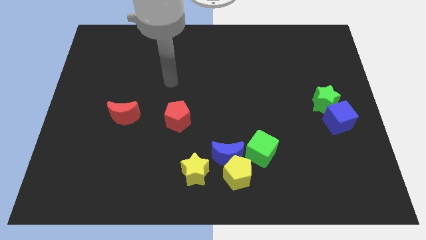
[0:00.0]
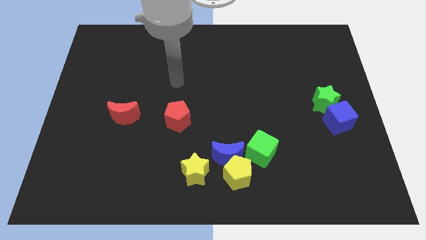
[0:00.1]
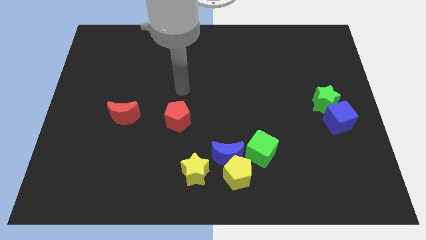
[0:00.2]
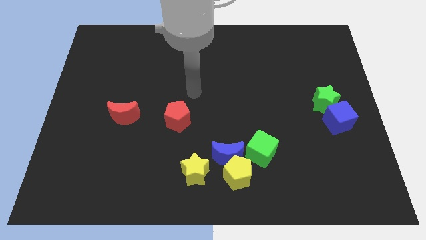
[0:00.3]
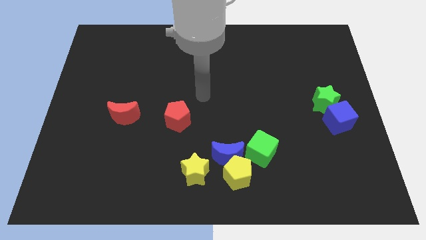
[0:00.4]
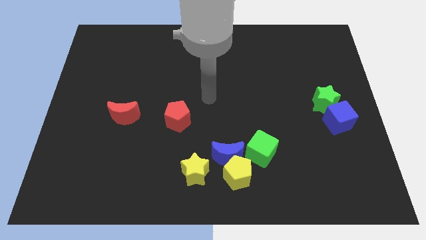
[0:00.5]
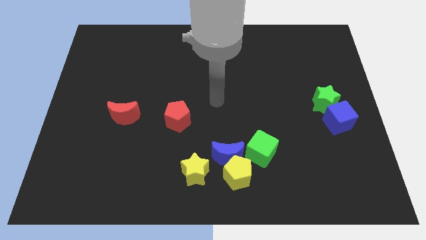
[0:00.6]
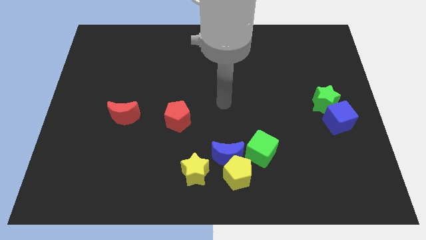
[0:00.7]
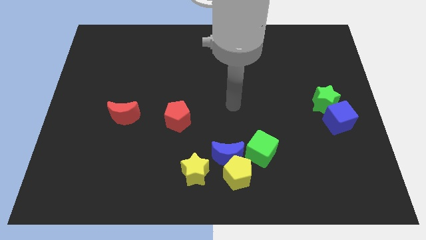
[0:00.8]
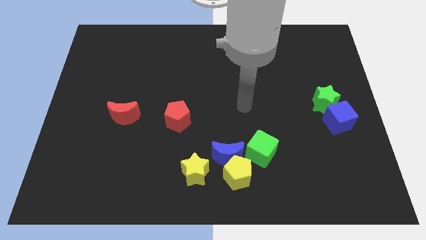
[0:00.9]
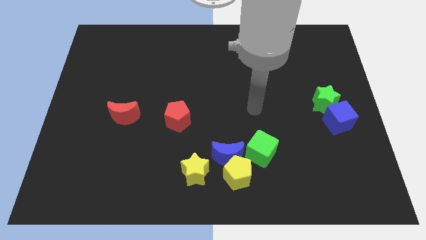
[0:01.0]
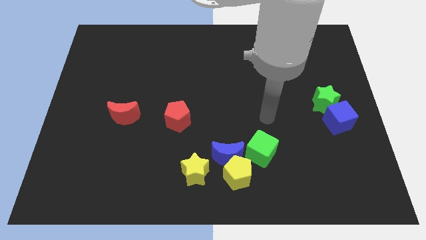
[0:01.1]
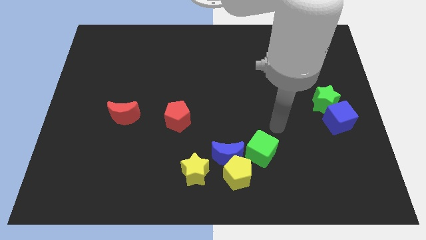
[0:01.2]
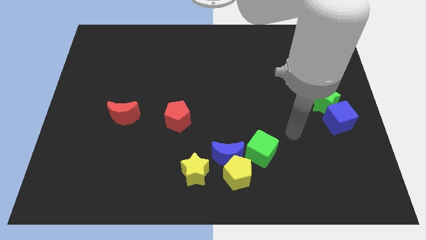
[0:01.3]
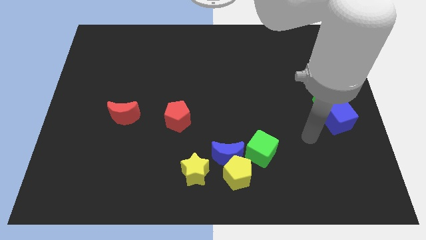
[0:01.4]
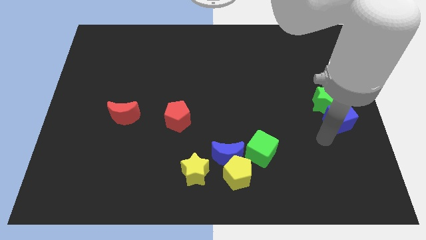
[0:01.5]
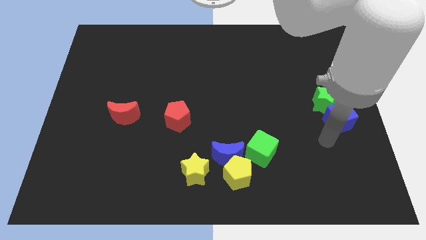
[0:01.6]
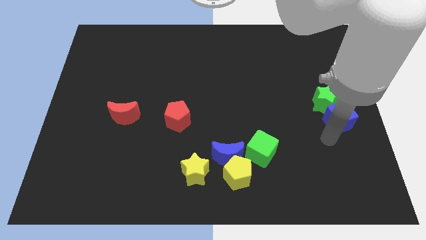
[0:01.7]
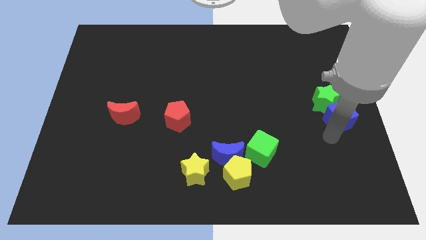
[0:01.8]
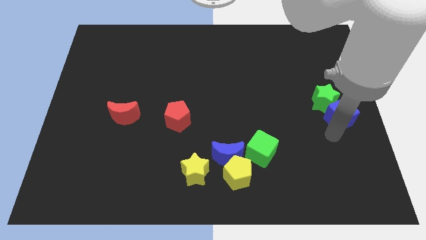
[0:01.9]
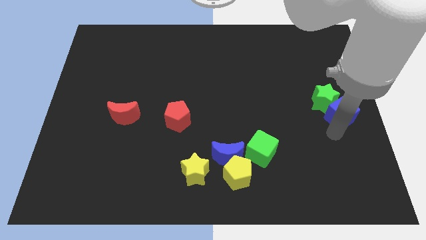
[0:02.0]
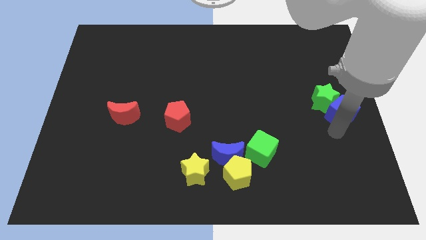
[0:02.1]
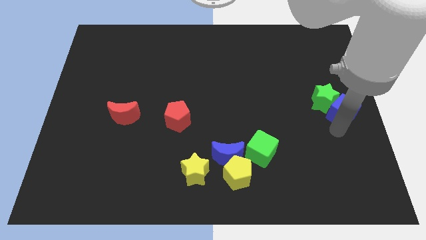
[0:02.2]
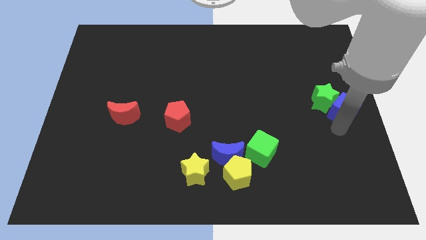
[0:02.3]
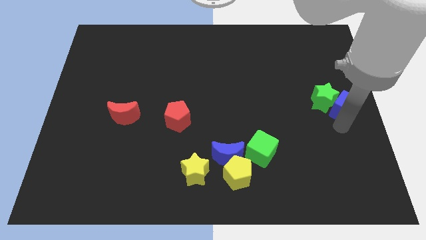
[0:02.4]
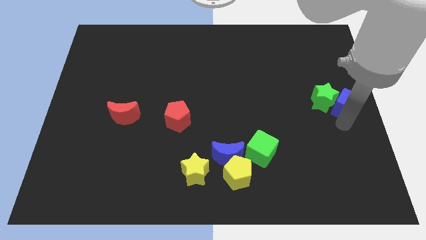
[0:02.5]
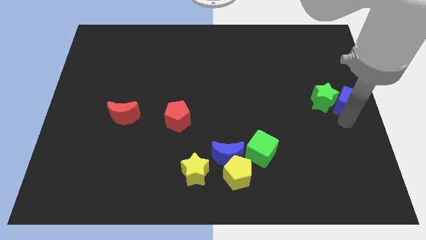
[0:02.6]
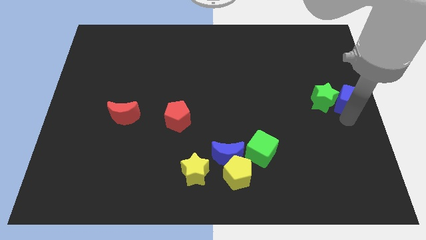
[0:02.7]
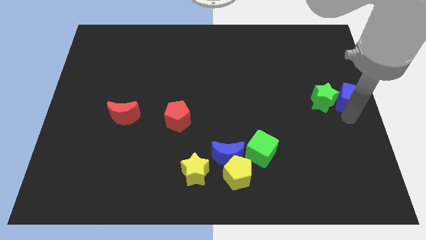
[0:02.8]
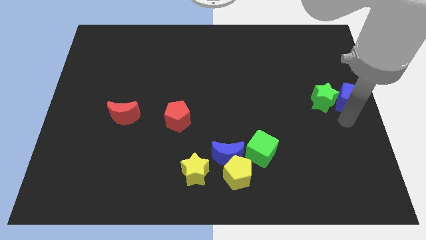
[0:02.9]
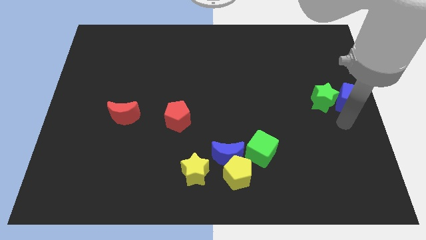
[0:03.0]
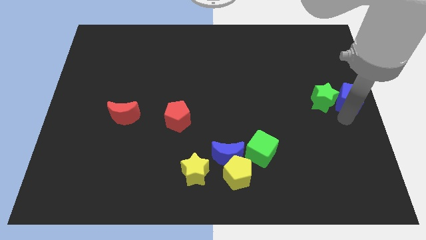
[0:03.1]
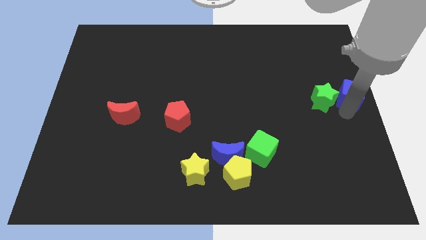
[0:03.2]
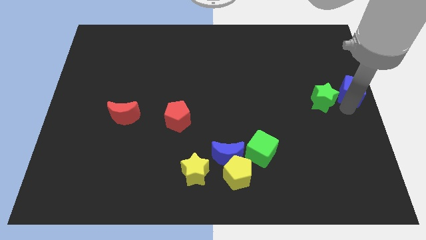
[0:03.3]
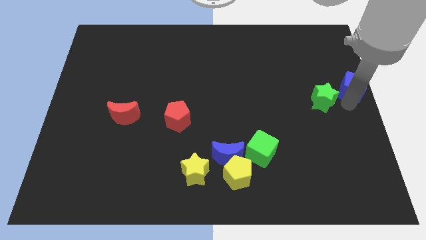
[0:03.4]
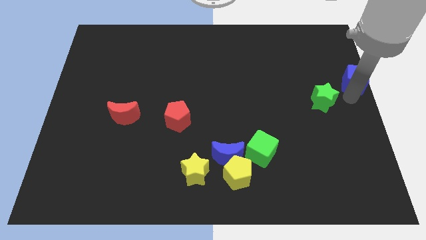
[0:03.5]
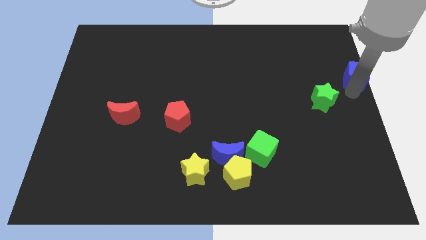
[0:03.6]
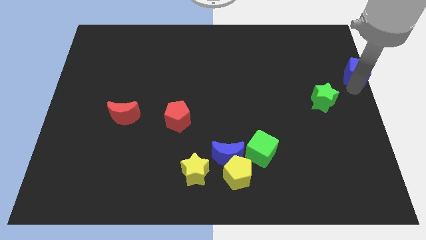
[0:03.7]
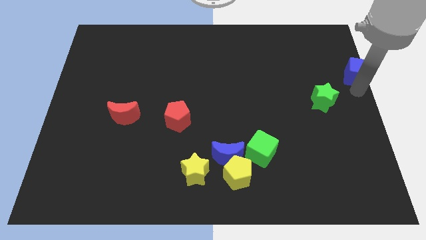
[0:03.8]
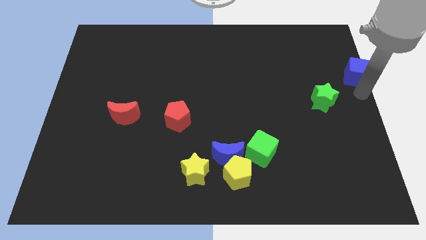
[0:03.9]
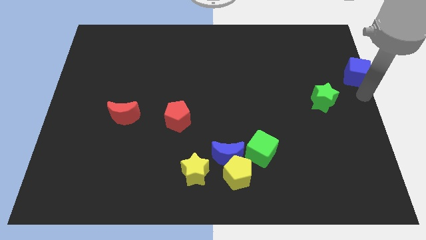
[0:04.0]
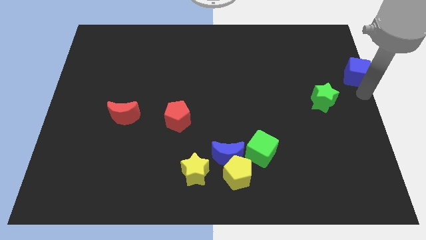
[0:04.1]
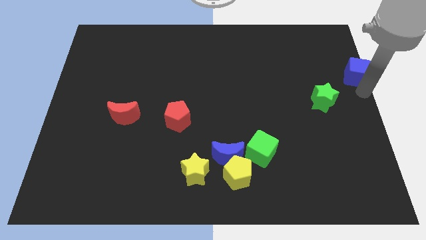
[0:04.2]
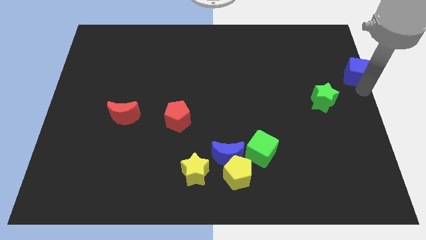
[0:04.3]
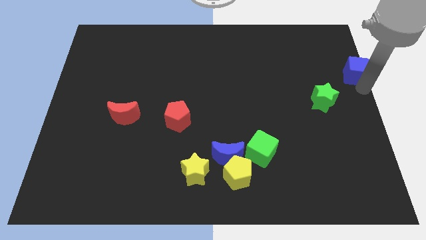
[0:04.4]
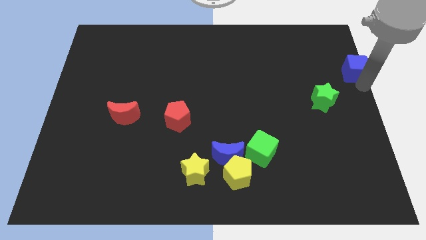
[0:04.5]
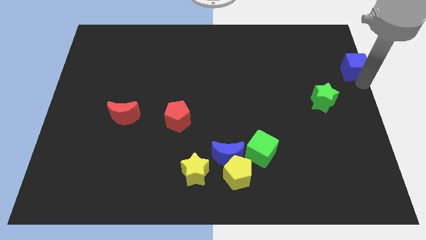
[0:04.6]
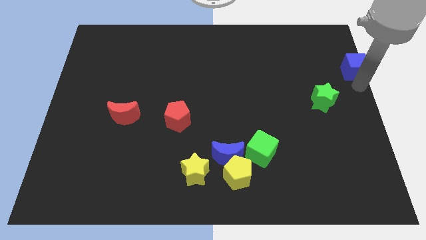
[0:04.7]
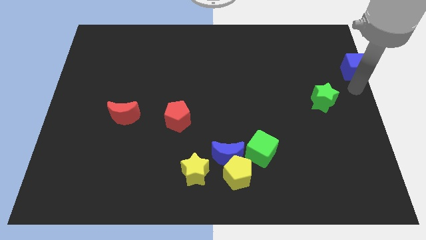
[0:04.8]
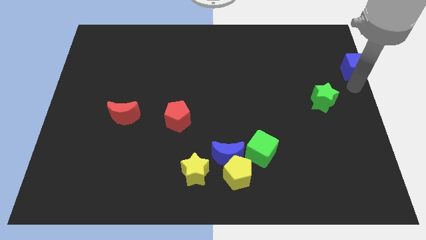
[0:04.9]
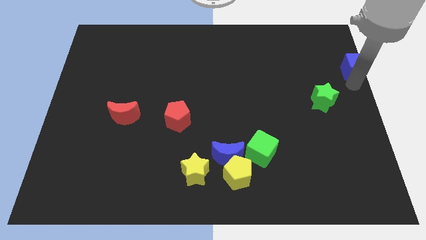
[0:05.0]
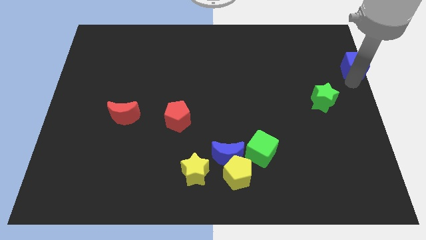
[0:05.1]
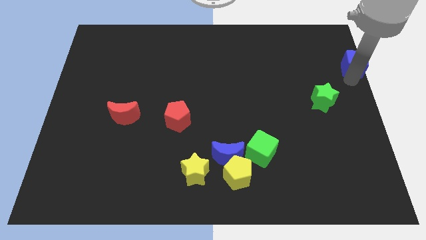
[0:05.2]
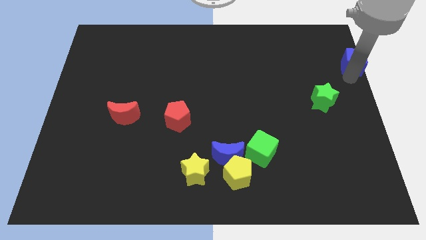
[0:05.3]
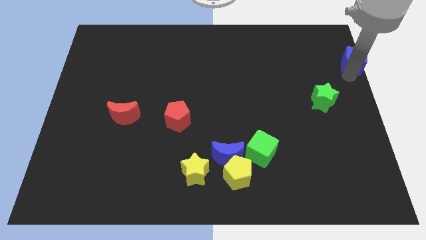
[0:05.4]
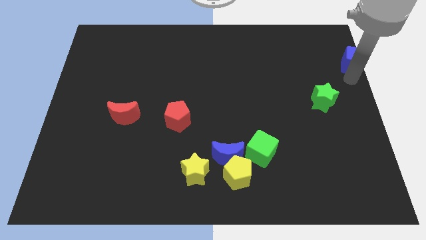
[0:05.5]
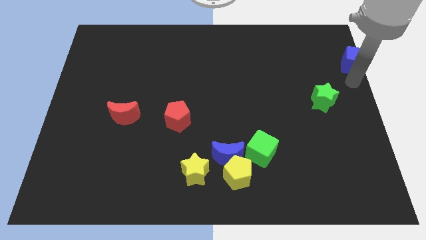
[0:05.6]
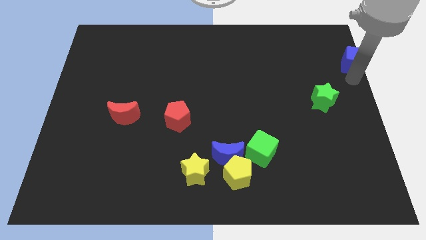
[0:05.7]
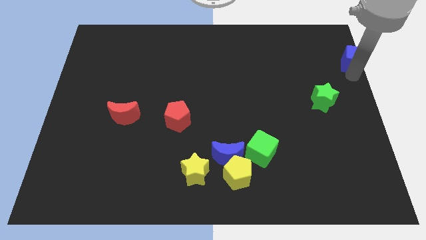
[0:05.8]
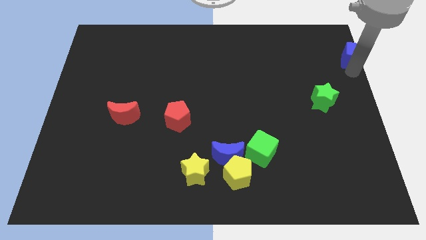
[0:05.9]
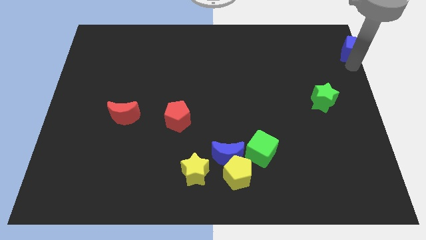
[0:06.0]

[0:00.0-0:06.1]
put the blue cube to the top right

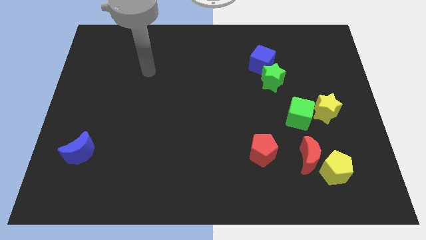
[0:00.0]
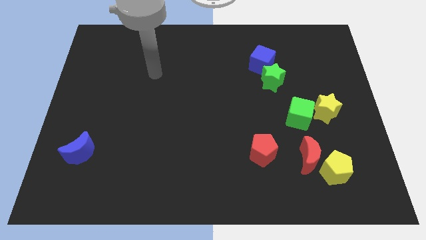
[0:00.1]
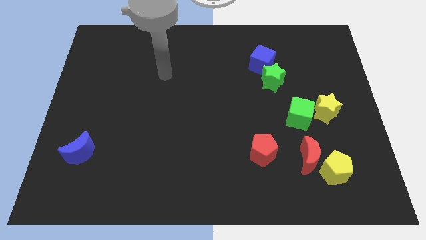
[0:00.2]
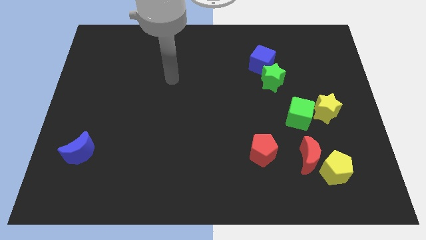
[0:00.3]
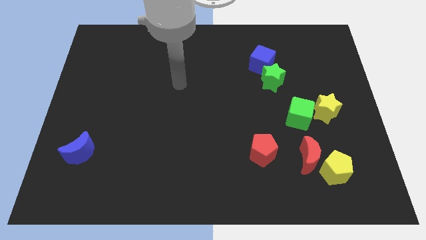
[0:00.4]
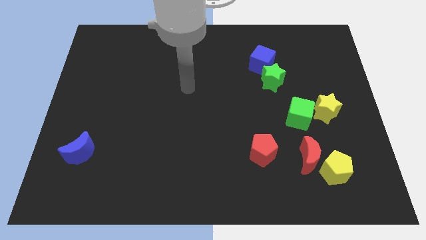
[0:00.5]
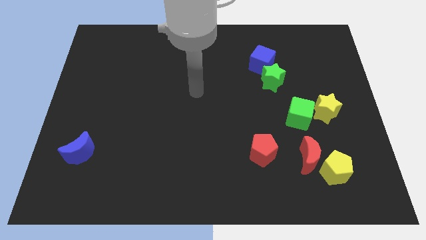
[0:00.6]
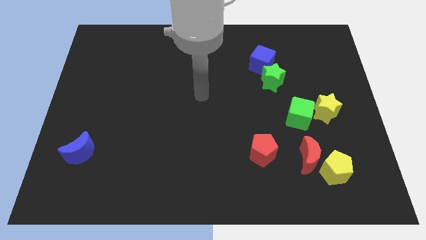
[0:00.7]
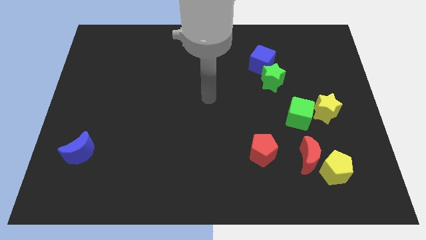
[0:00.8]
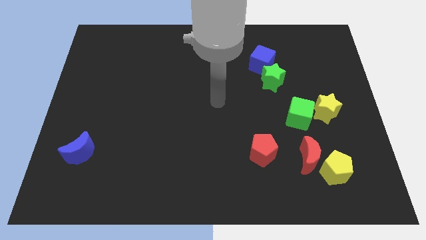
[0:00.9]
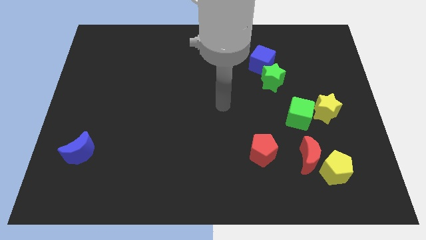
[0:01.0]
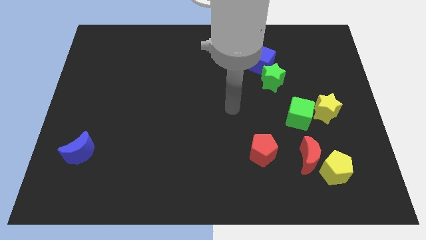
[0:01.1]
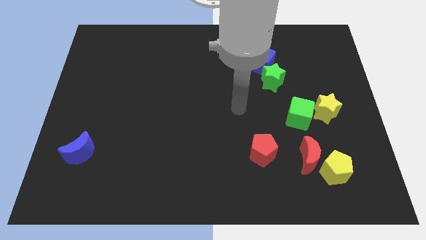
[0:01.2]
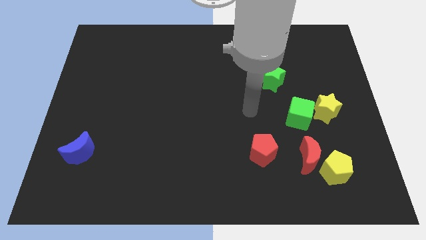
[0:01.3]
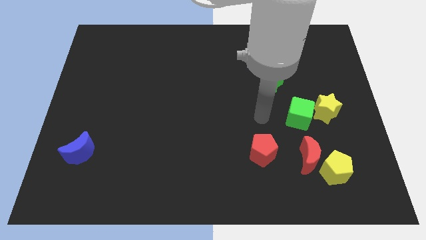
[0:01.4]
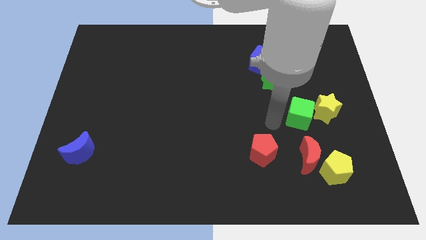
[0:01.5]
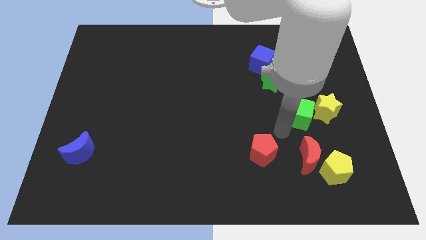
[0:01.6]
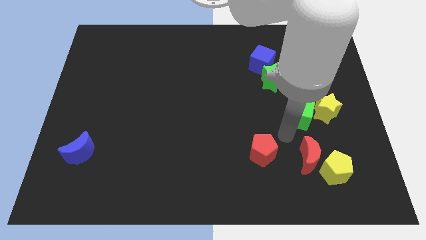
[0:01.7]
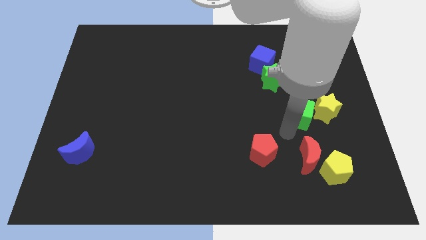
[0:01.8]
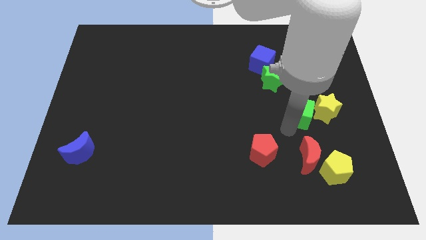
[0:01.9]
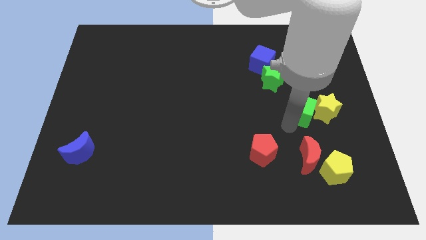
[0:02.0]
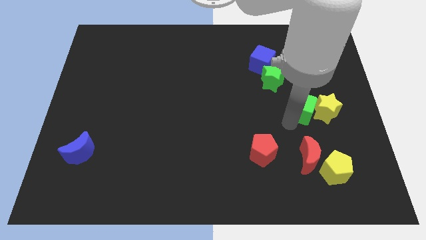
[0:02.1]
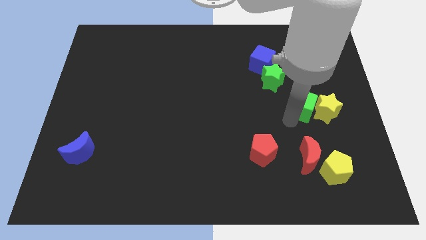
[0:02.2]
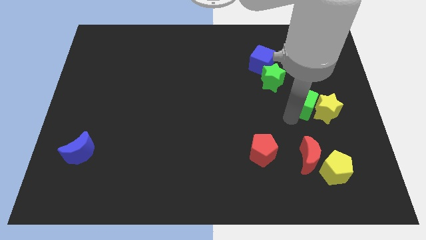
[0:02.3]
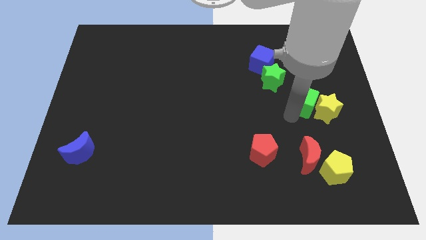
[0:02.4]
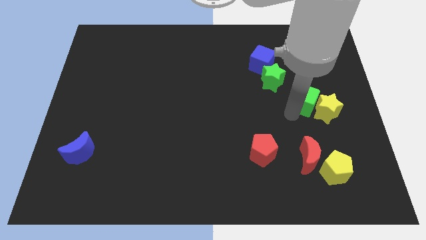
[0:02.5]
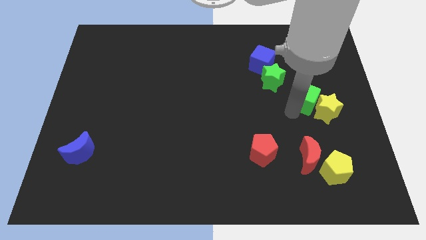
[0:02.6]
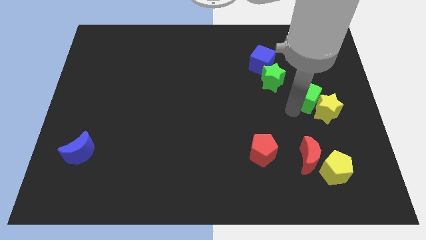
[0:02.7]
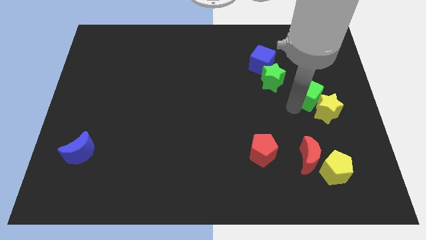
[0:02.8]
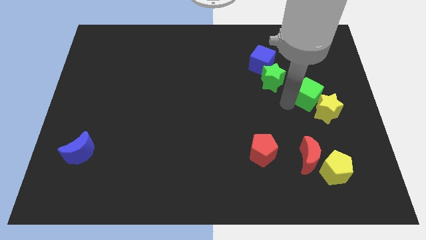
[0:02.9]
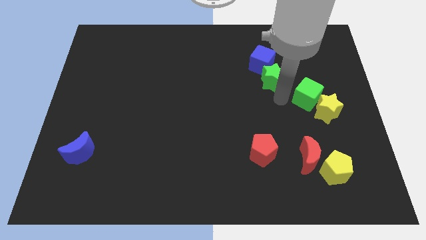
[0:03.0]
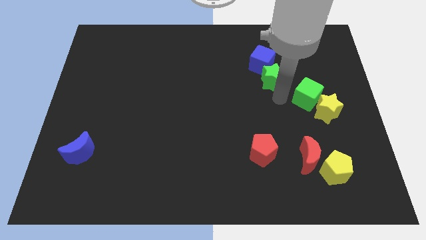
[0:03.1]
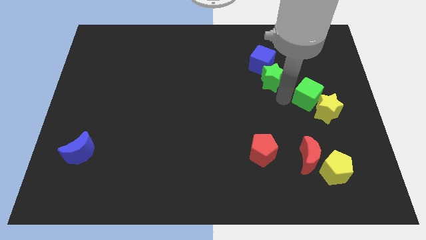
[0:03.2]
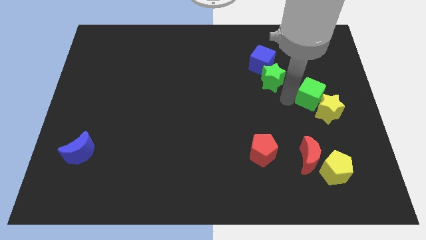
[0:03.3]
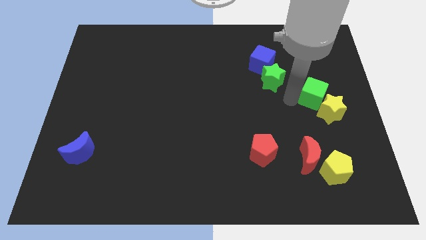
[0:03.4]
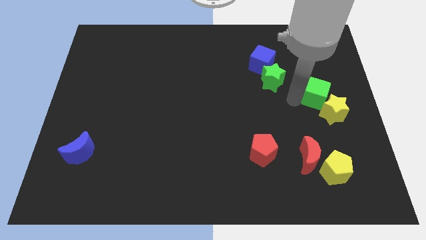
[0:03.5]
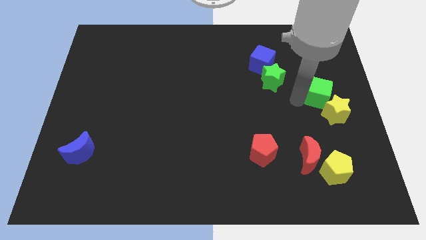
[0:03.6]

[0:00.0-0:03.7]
move the green cube to the right side of the board
